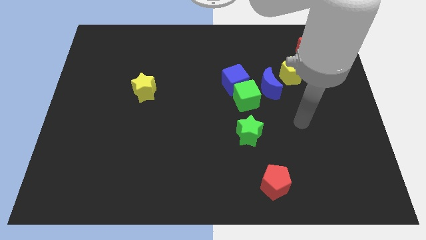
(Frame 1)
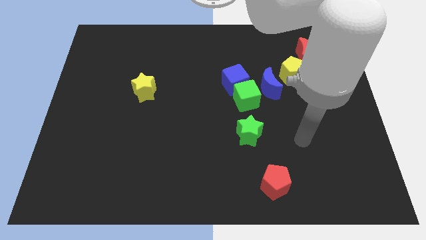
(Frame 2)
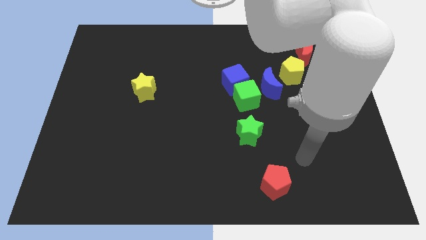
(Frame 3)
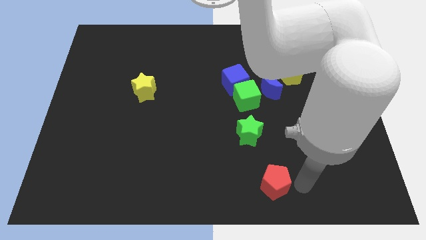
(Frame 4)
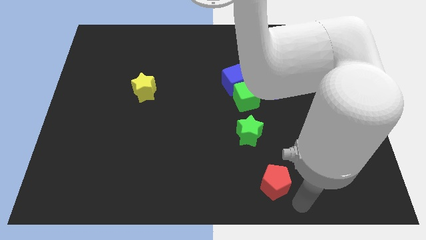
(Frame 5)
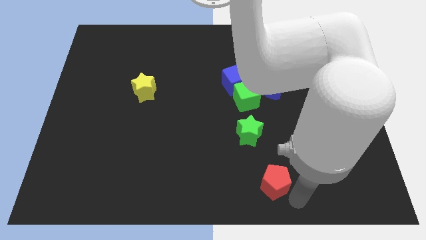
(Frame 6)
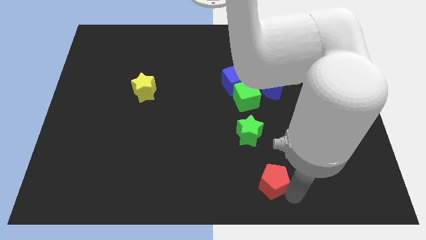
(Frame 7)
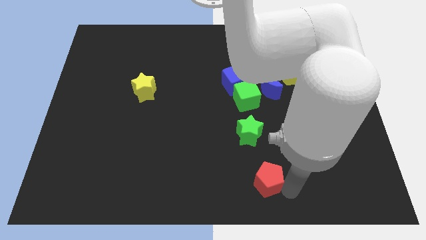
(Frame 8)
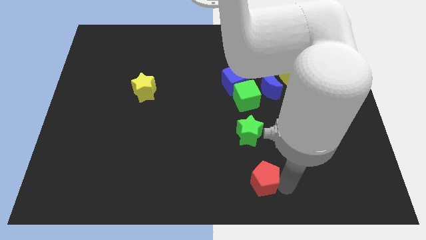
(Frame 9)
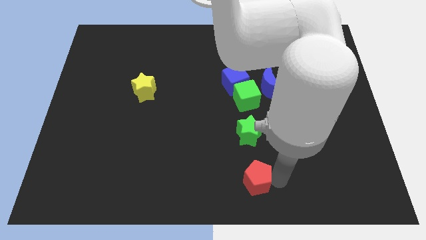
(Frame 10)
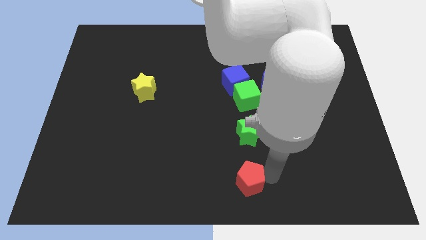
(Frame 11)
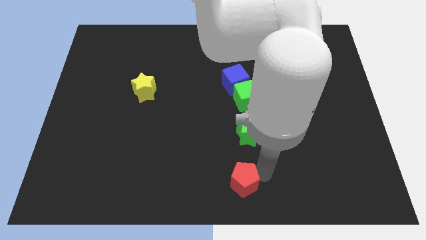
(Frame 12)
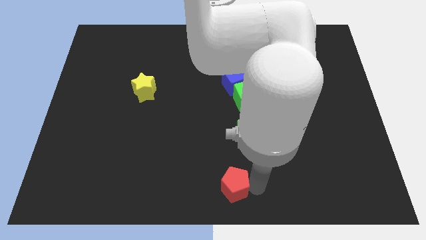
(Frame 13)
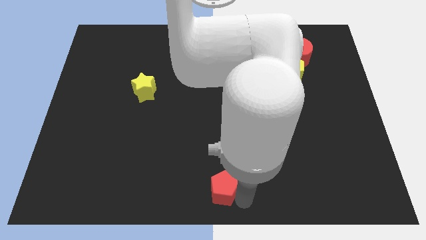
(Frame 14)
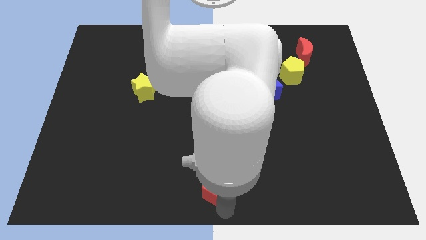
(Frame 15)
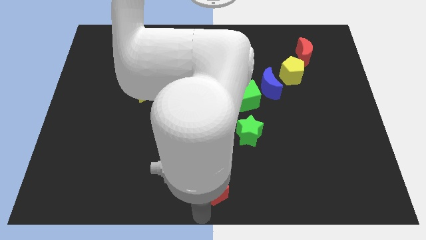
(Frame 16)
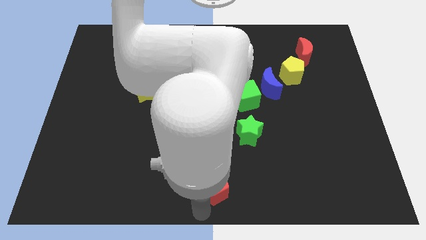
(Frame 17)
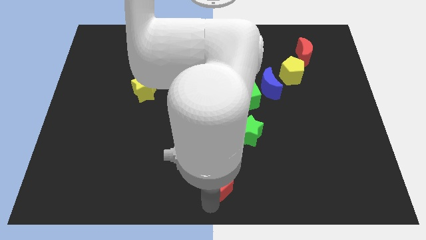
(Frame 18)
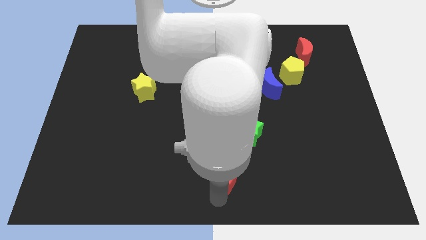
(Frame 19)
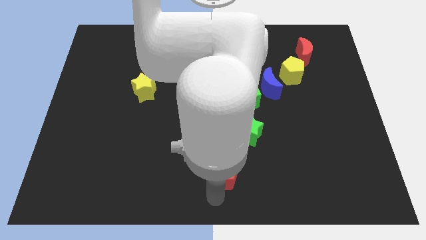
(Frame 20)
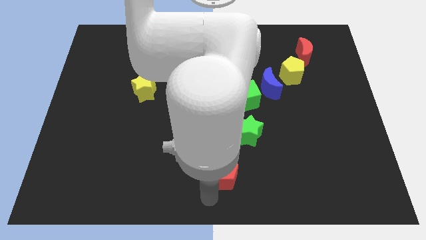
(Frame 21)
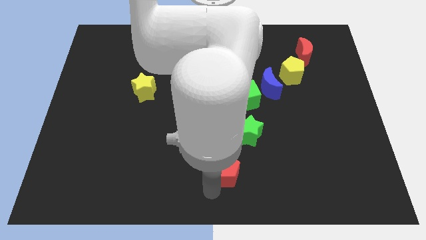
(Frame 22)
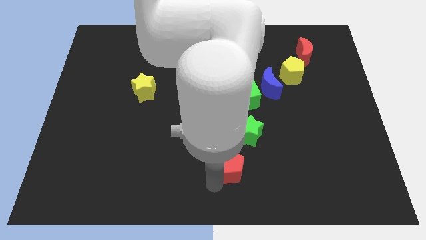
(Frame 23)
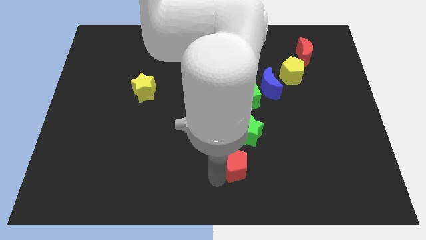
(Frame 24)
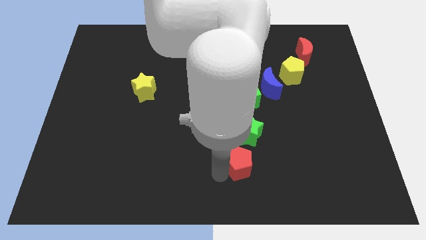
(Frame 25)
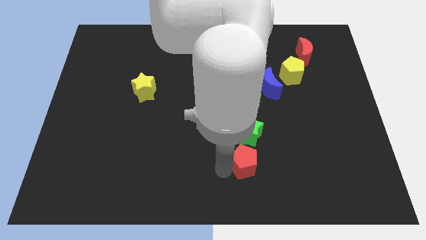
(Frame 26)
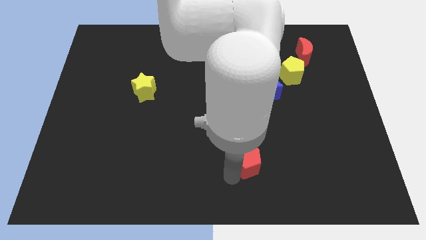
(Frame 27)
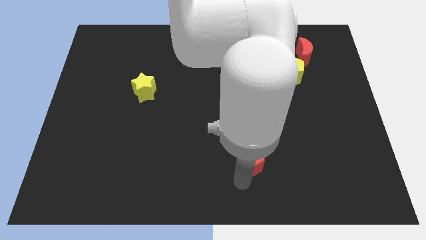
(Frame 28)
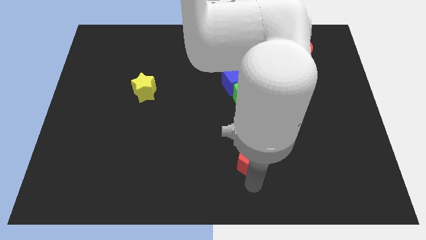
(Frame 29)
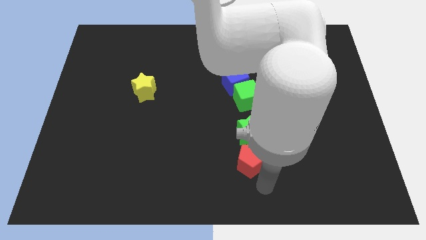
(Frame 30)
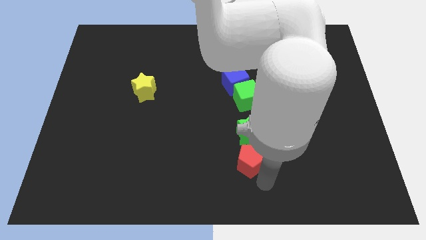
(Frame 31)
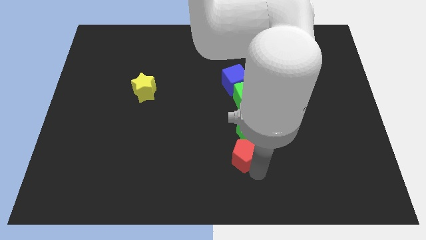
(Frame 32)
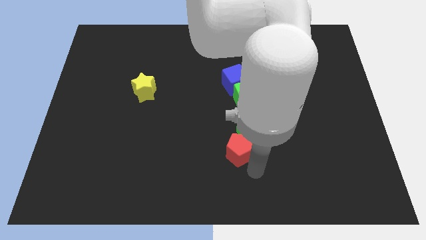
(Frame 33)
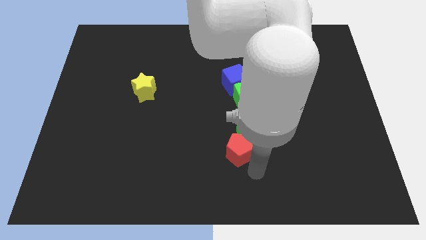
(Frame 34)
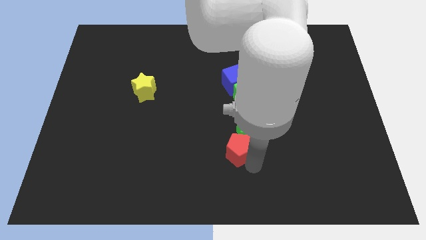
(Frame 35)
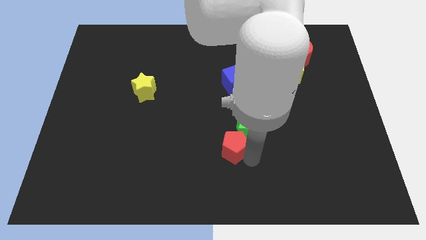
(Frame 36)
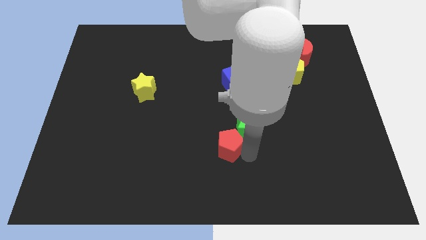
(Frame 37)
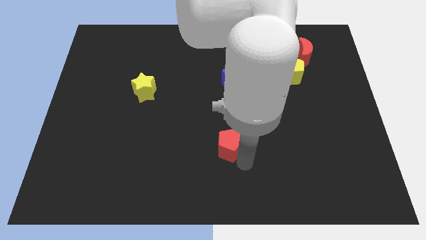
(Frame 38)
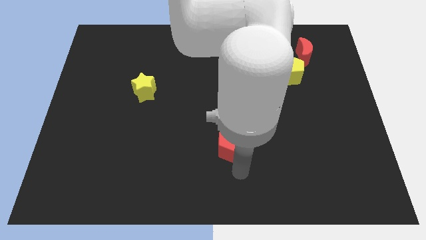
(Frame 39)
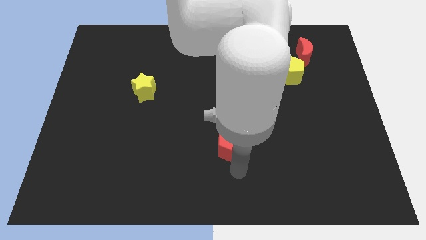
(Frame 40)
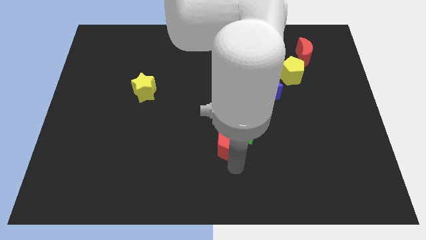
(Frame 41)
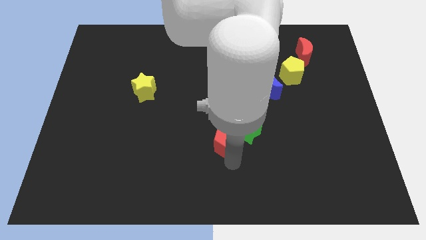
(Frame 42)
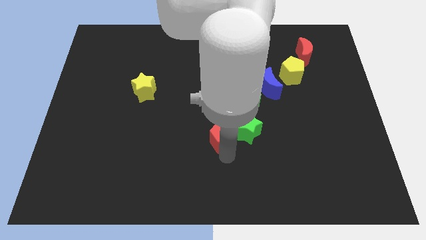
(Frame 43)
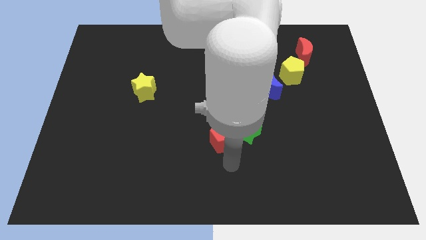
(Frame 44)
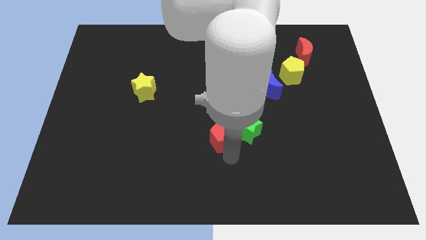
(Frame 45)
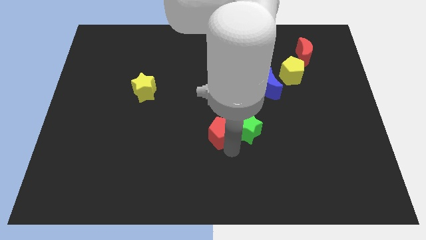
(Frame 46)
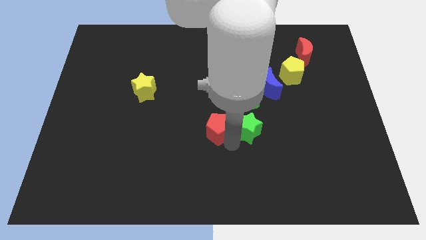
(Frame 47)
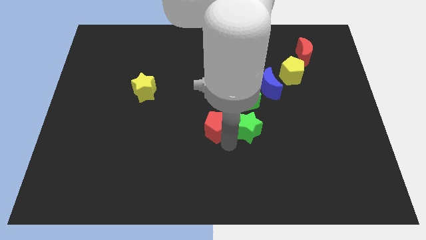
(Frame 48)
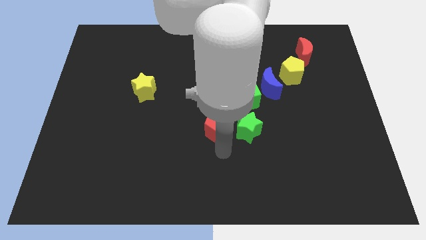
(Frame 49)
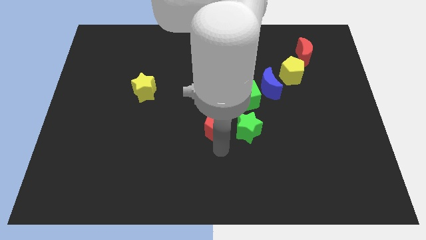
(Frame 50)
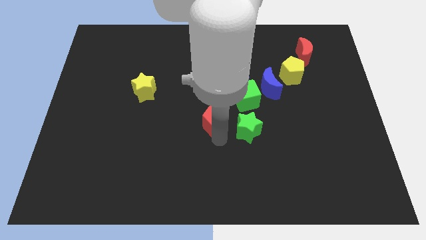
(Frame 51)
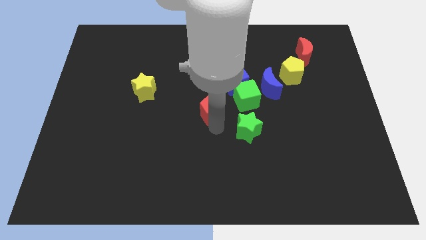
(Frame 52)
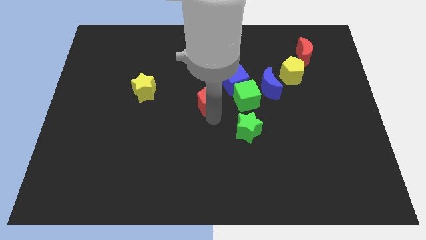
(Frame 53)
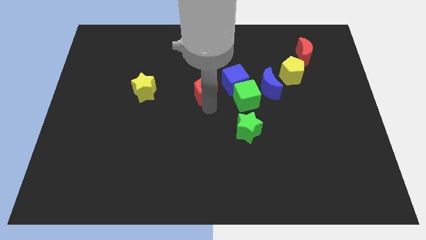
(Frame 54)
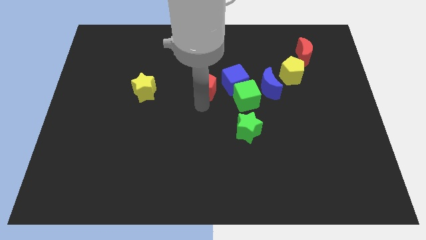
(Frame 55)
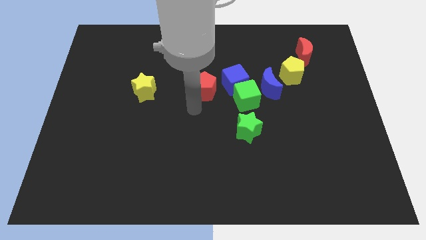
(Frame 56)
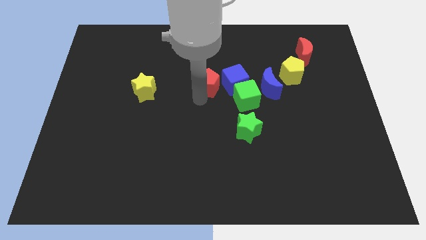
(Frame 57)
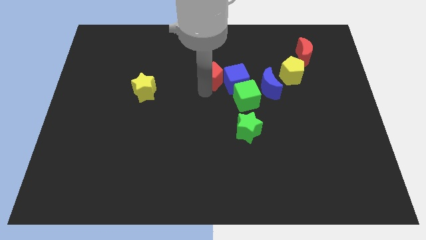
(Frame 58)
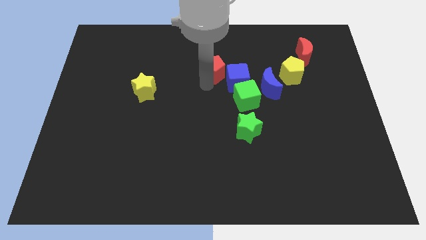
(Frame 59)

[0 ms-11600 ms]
move the red pentagon up

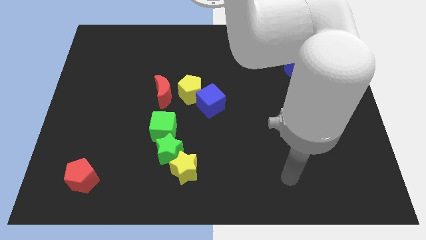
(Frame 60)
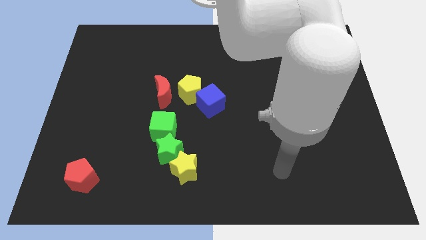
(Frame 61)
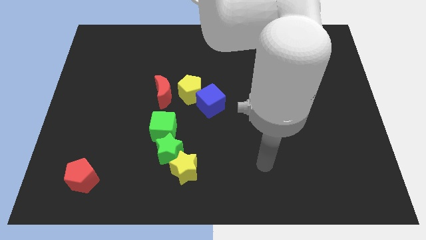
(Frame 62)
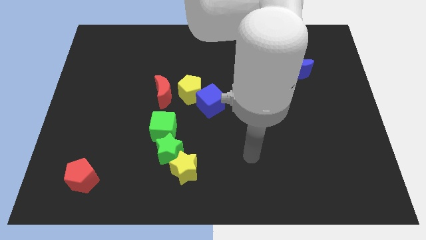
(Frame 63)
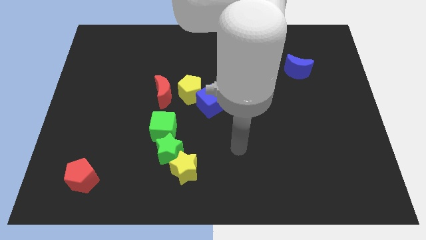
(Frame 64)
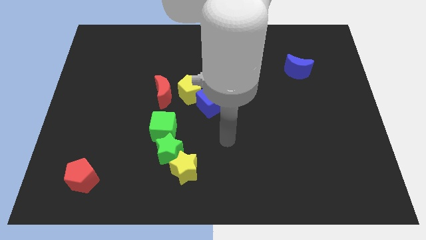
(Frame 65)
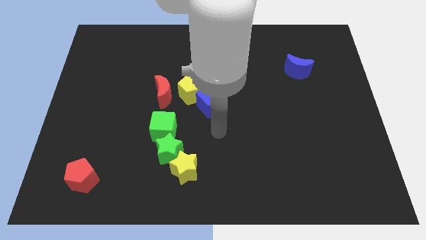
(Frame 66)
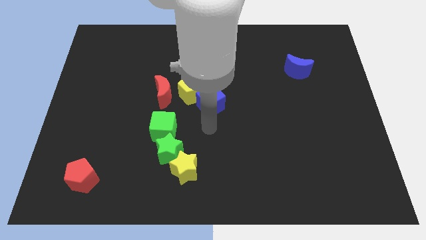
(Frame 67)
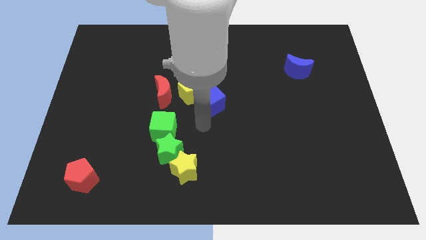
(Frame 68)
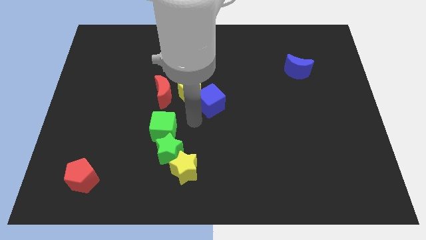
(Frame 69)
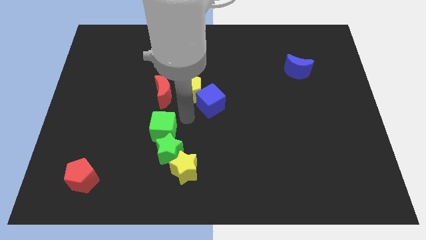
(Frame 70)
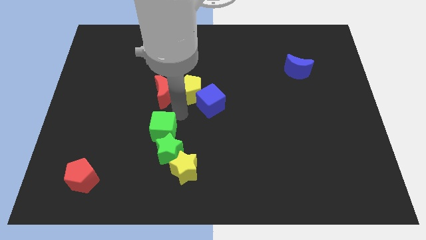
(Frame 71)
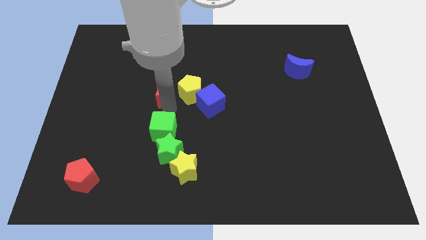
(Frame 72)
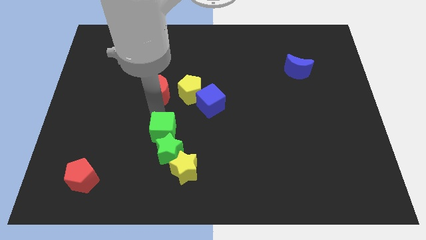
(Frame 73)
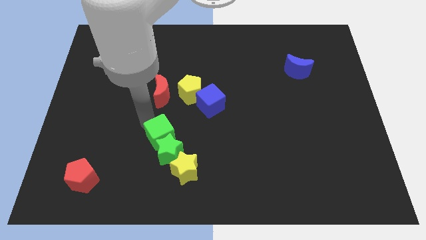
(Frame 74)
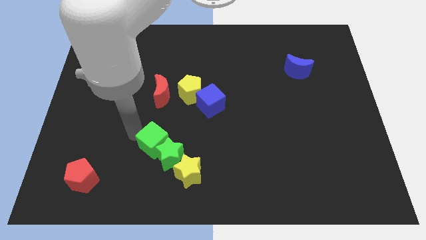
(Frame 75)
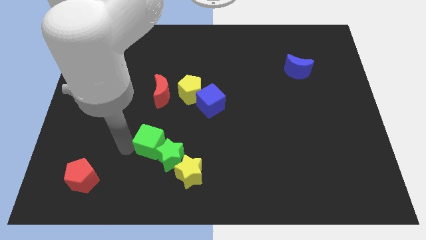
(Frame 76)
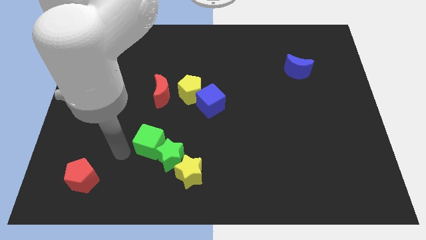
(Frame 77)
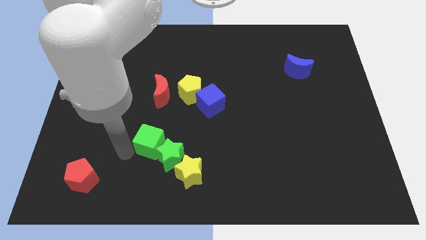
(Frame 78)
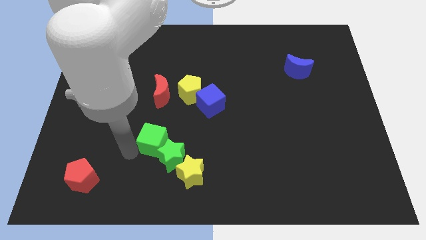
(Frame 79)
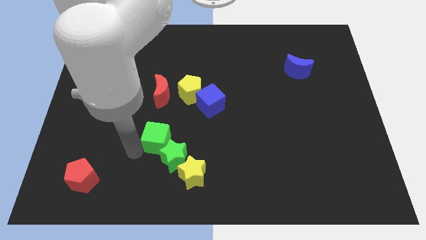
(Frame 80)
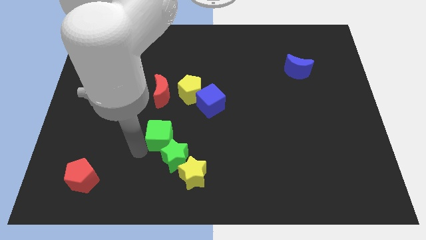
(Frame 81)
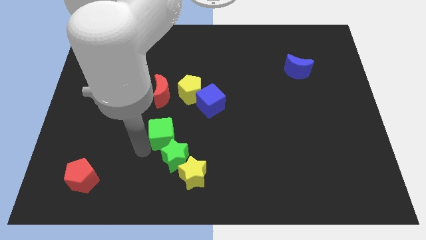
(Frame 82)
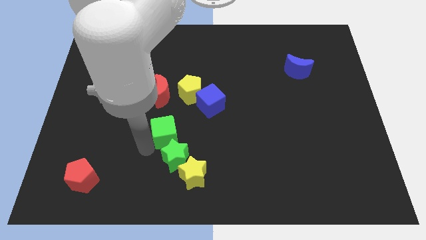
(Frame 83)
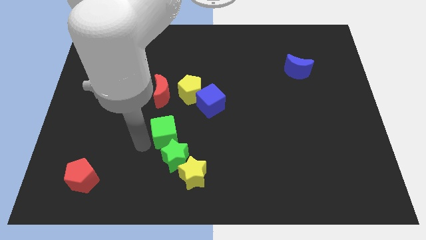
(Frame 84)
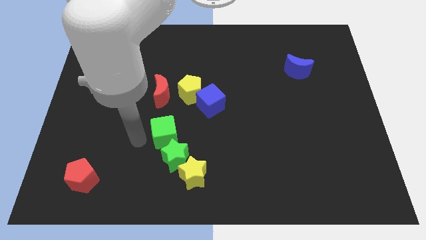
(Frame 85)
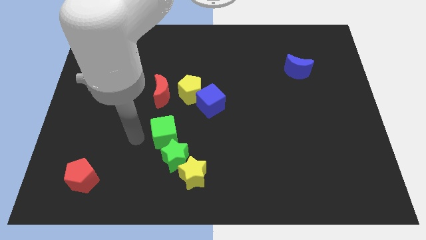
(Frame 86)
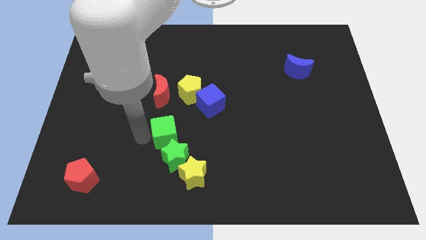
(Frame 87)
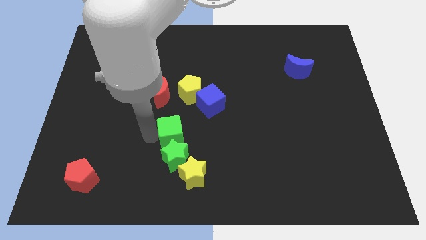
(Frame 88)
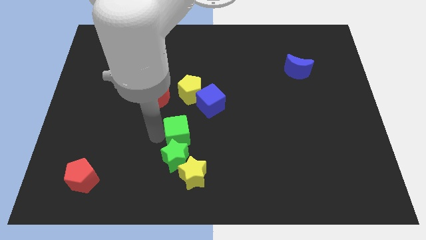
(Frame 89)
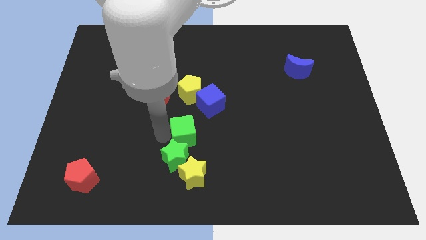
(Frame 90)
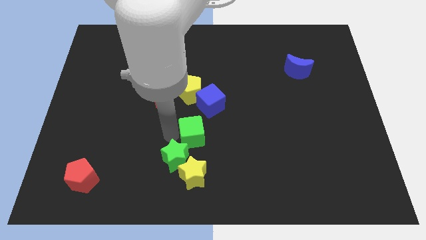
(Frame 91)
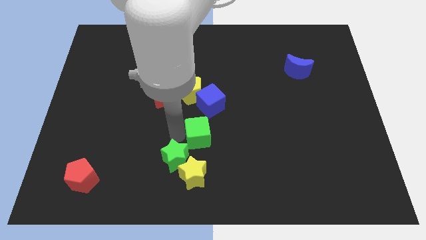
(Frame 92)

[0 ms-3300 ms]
slightly push the green cube to the right
